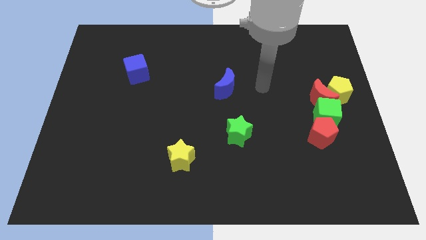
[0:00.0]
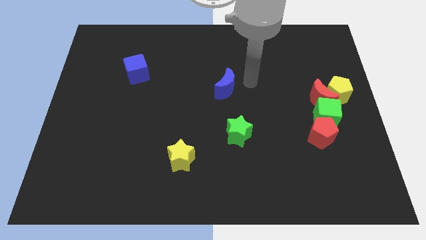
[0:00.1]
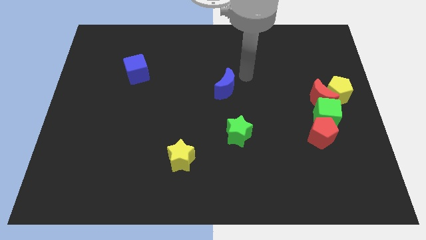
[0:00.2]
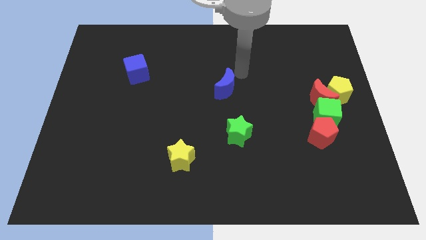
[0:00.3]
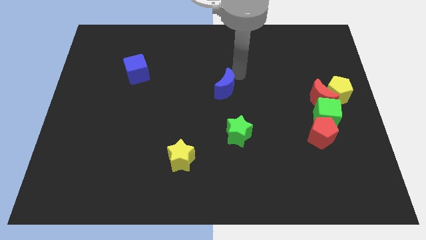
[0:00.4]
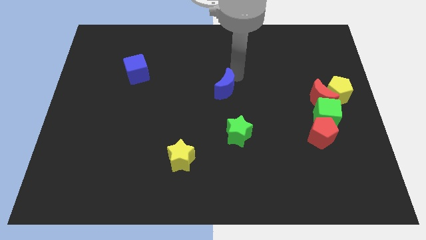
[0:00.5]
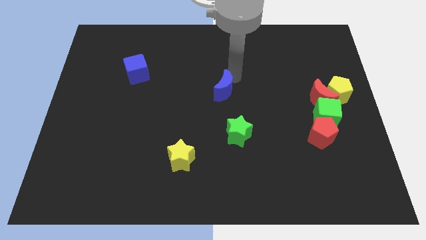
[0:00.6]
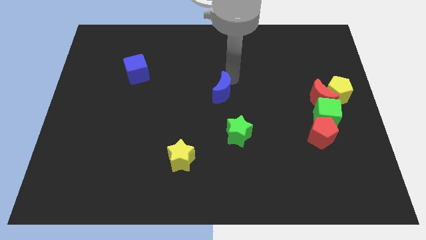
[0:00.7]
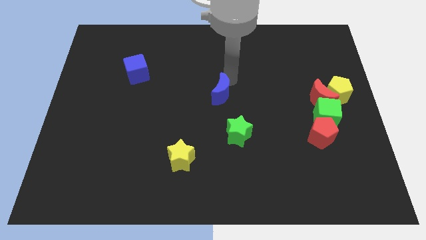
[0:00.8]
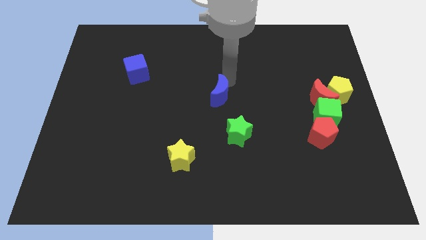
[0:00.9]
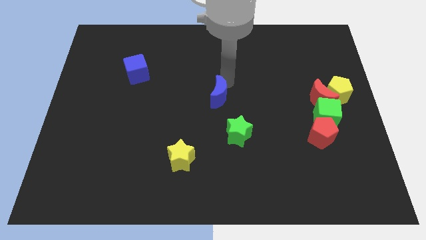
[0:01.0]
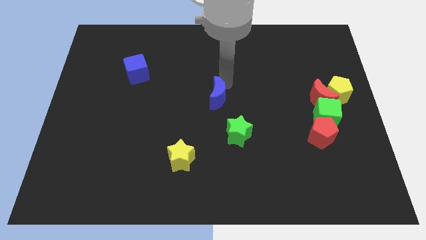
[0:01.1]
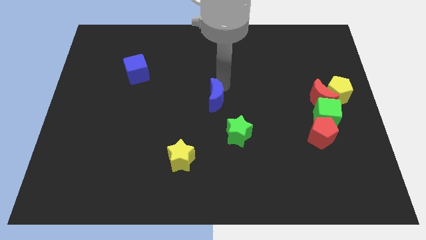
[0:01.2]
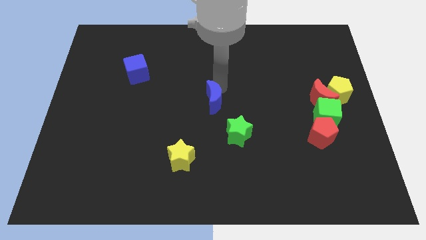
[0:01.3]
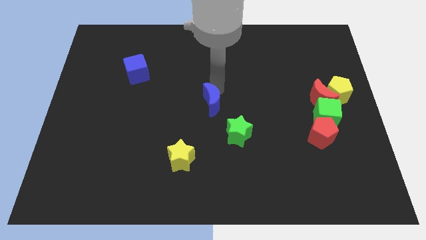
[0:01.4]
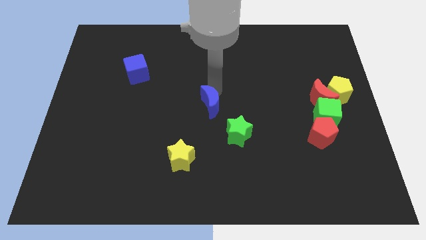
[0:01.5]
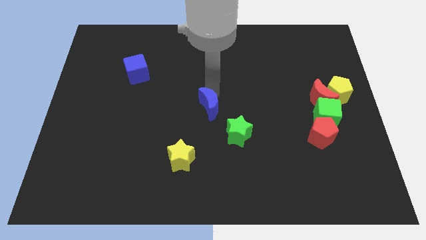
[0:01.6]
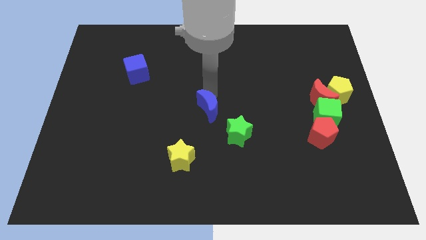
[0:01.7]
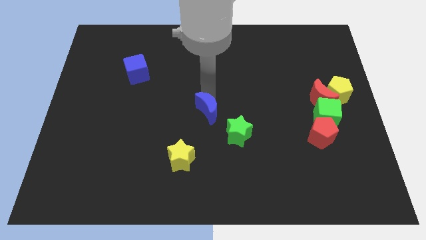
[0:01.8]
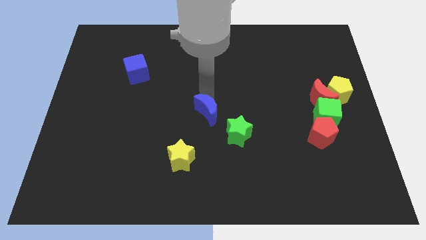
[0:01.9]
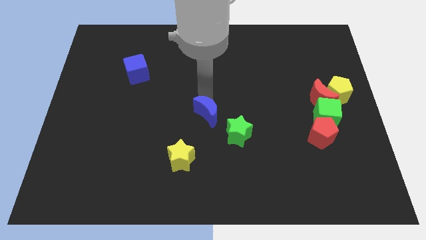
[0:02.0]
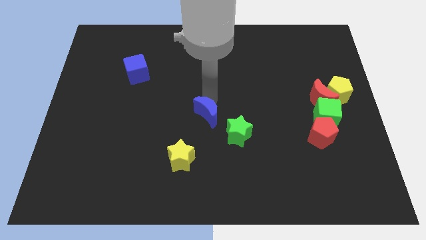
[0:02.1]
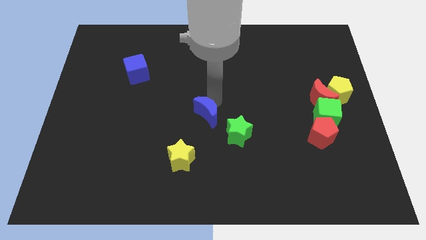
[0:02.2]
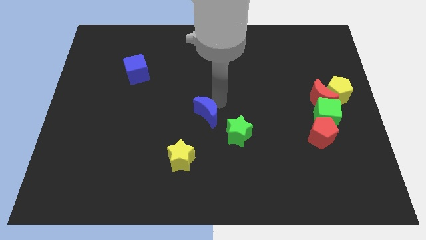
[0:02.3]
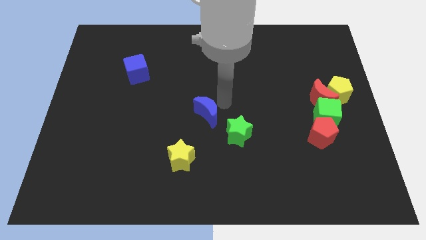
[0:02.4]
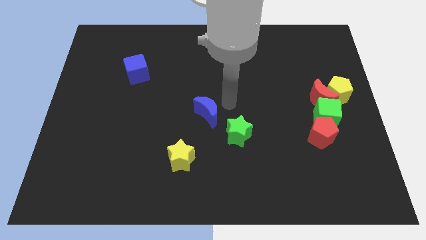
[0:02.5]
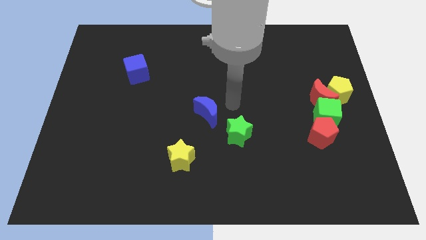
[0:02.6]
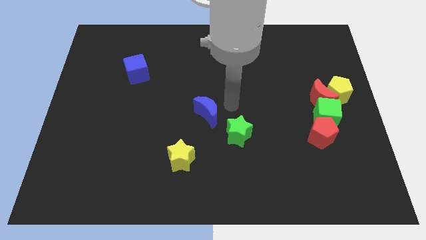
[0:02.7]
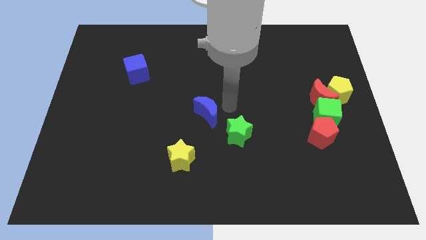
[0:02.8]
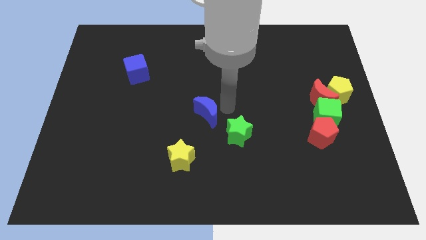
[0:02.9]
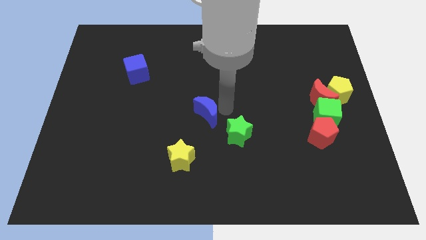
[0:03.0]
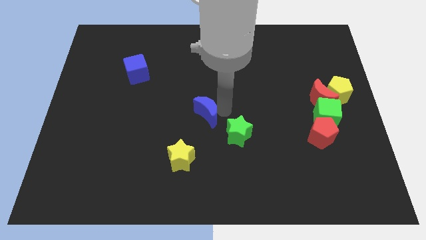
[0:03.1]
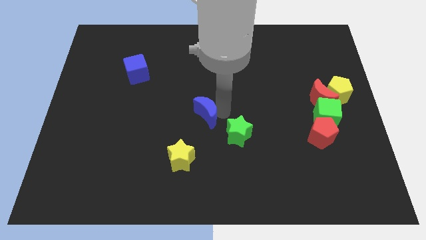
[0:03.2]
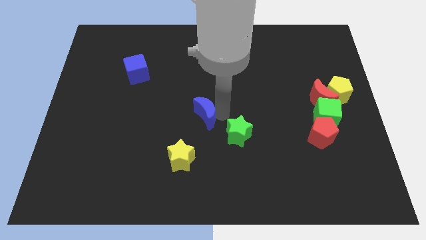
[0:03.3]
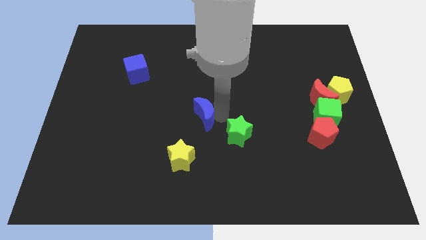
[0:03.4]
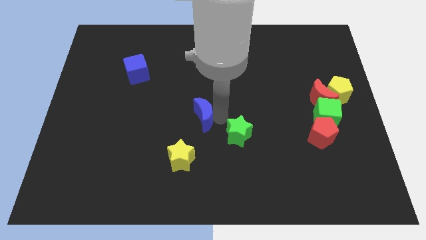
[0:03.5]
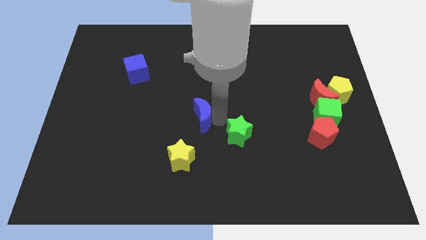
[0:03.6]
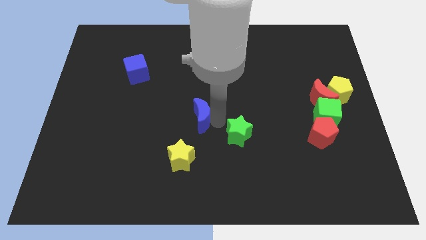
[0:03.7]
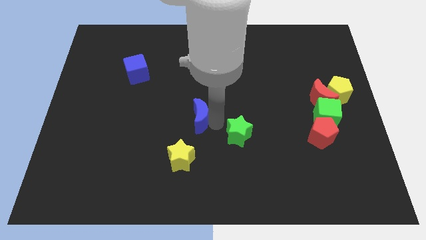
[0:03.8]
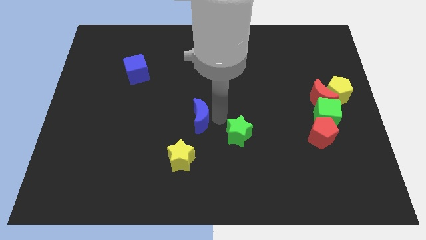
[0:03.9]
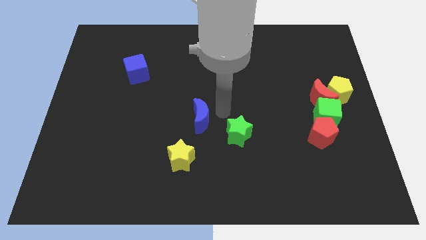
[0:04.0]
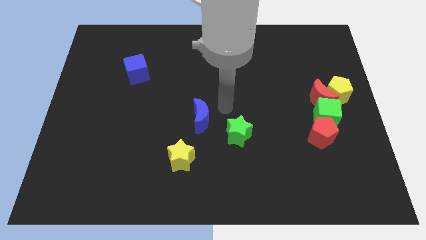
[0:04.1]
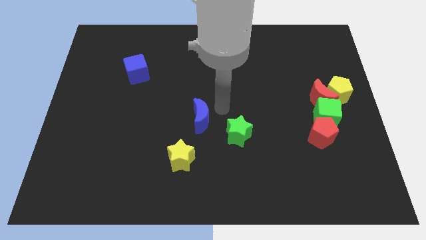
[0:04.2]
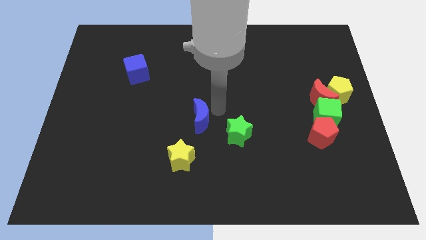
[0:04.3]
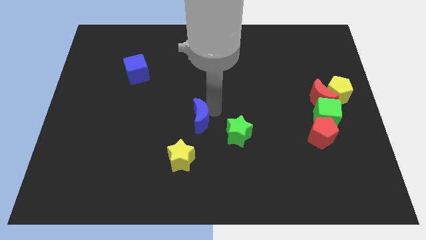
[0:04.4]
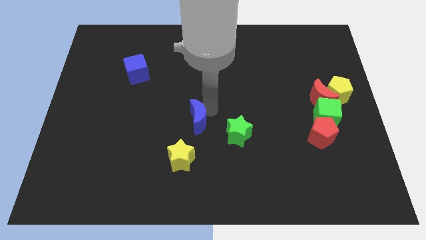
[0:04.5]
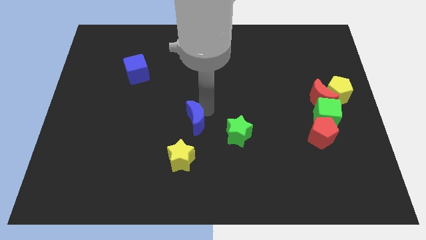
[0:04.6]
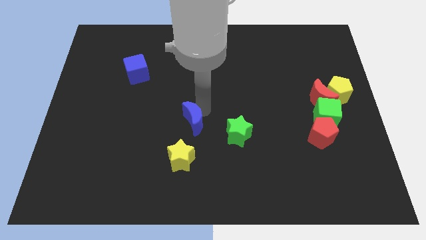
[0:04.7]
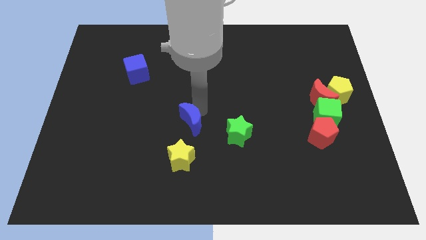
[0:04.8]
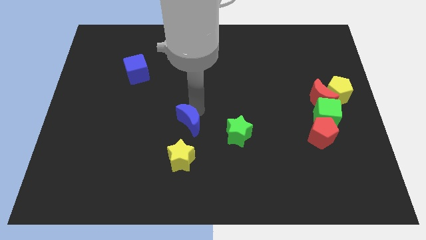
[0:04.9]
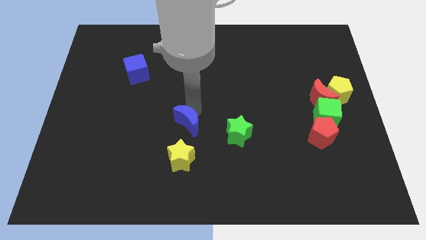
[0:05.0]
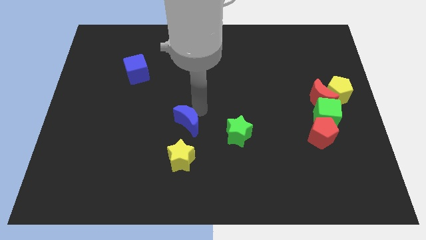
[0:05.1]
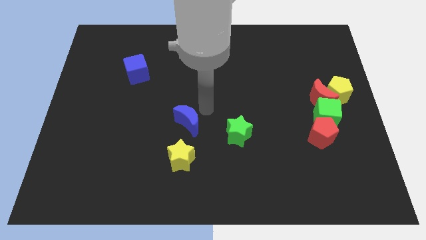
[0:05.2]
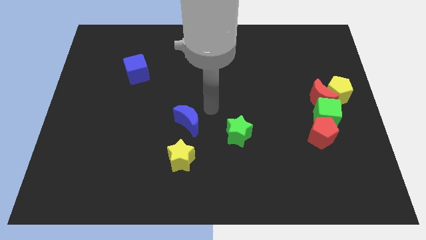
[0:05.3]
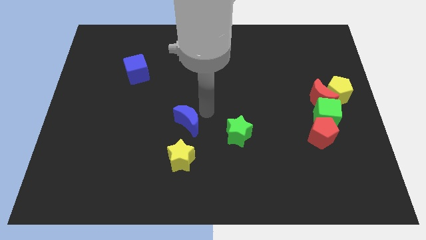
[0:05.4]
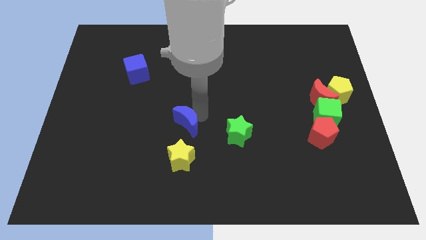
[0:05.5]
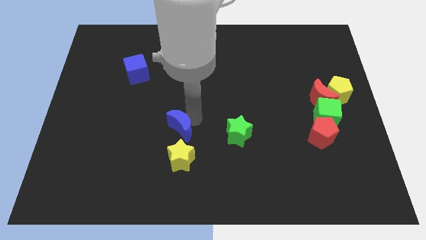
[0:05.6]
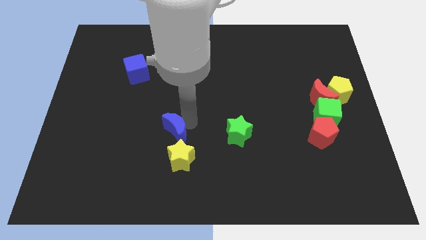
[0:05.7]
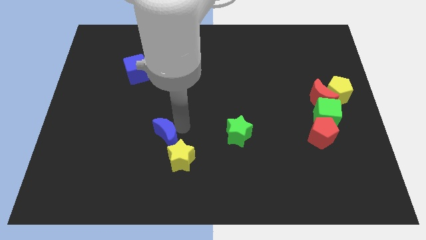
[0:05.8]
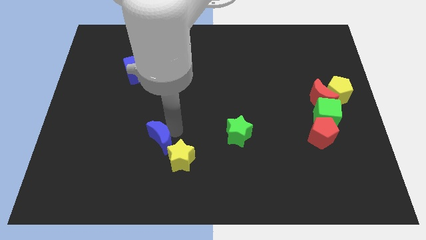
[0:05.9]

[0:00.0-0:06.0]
slide the blue moon down and to the left diagonally

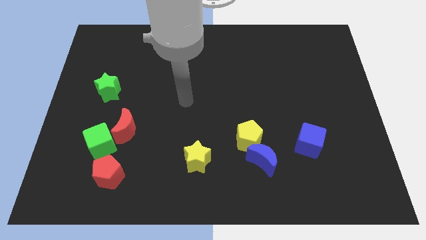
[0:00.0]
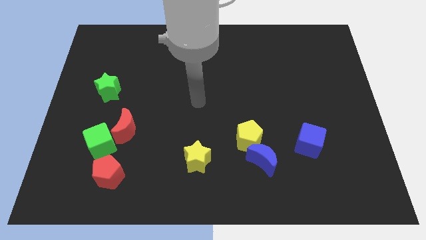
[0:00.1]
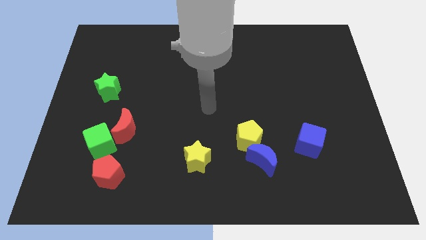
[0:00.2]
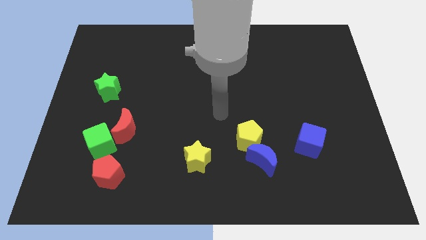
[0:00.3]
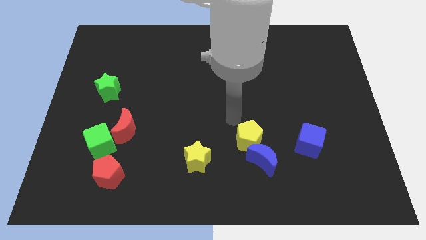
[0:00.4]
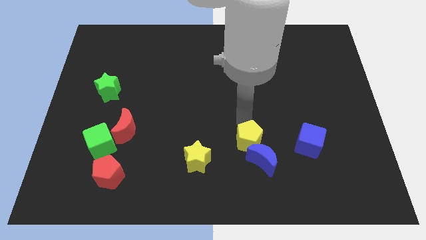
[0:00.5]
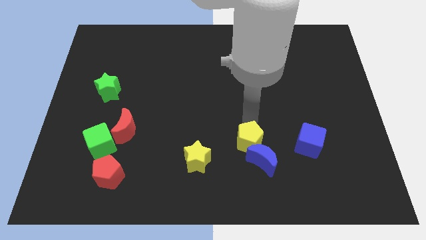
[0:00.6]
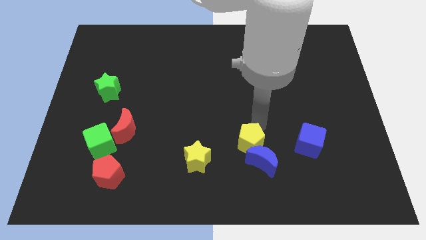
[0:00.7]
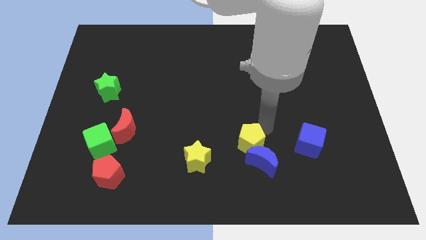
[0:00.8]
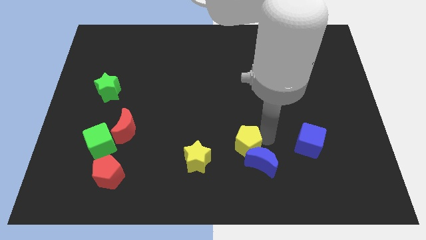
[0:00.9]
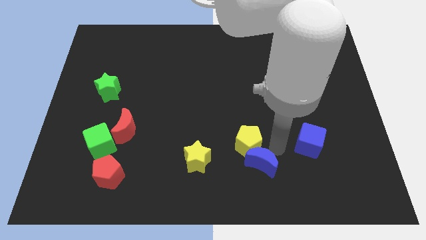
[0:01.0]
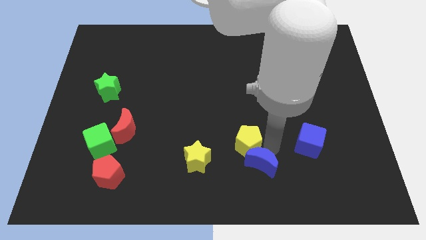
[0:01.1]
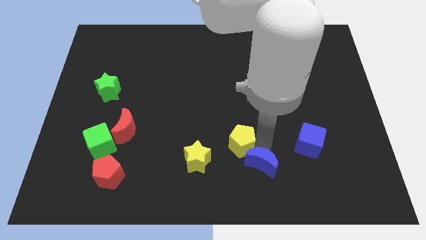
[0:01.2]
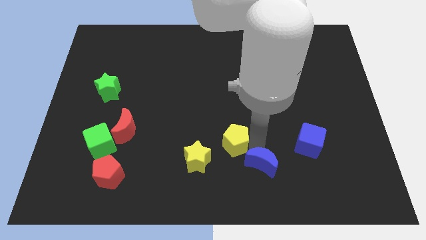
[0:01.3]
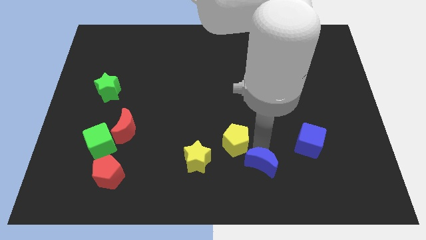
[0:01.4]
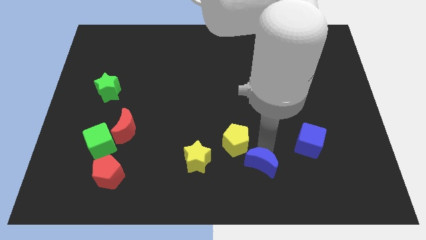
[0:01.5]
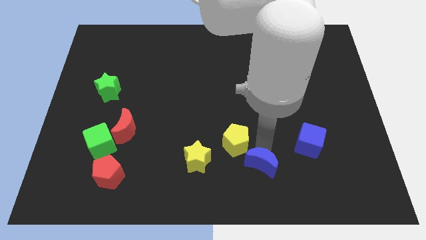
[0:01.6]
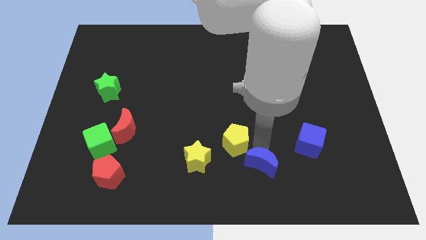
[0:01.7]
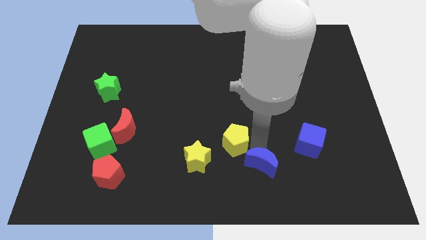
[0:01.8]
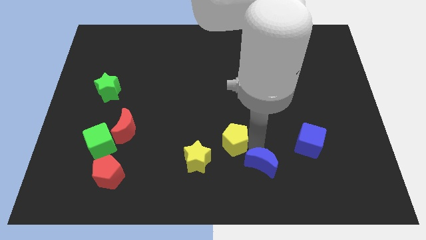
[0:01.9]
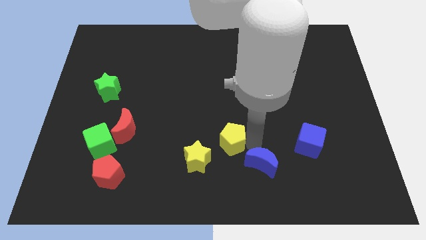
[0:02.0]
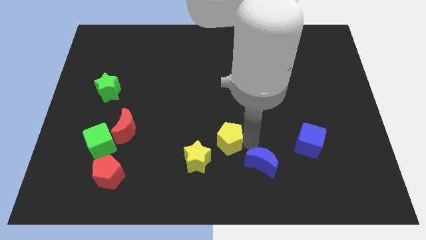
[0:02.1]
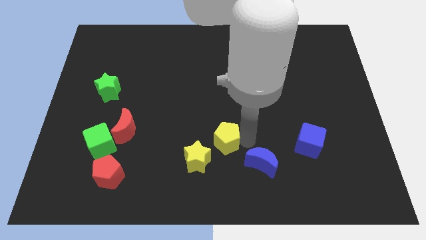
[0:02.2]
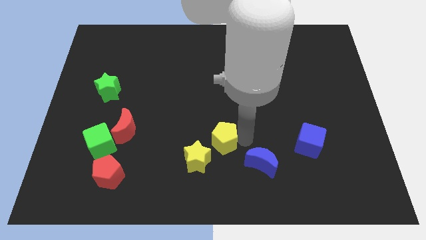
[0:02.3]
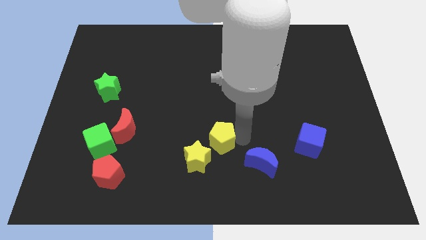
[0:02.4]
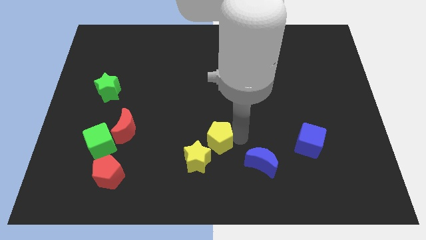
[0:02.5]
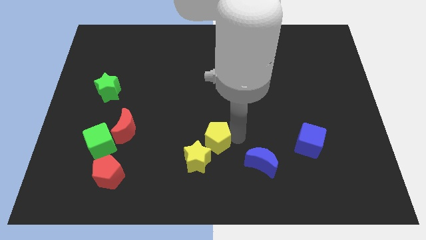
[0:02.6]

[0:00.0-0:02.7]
slide the yellow pentagon to the left slightly

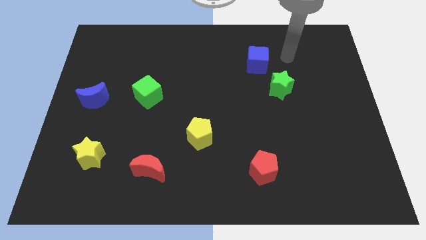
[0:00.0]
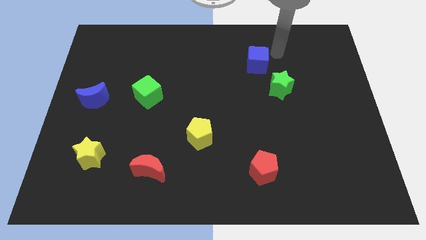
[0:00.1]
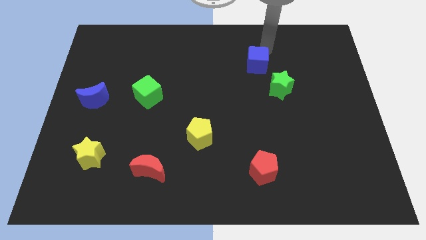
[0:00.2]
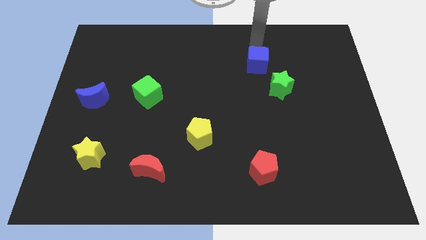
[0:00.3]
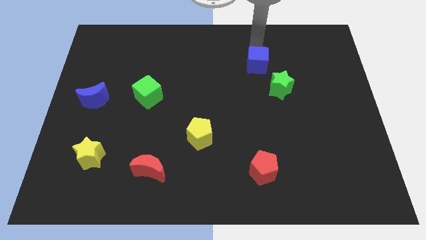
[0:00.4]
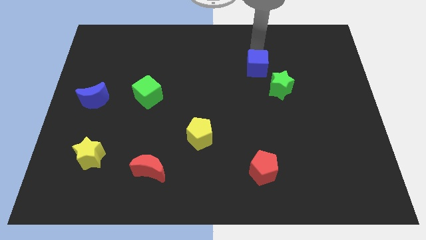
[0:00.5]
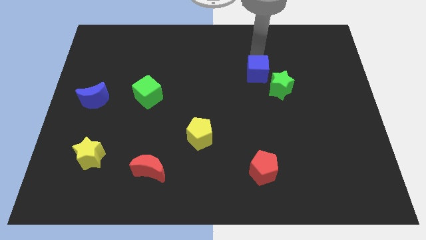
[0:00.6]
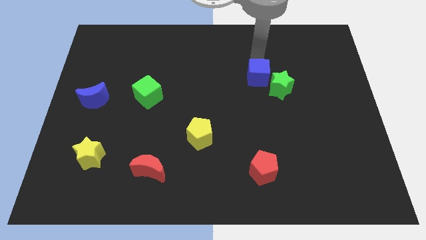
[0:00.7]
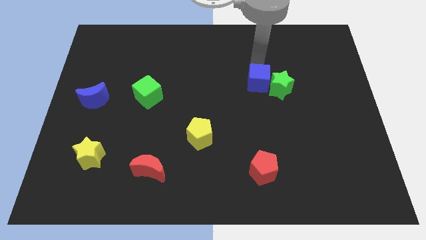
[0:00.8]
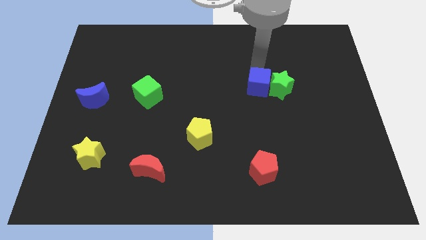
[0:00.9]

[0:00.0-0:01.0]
move the blue cube a little down
